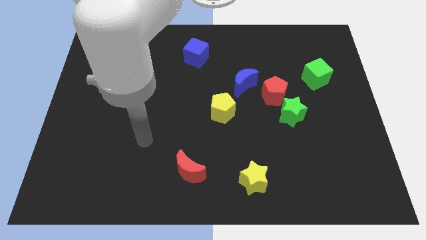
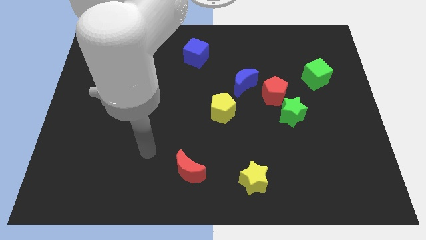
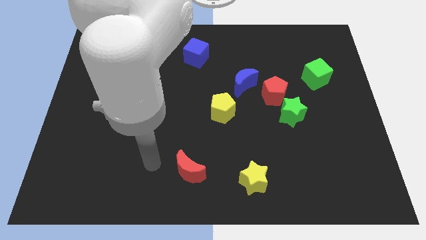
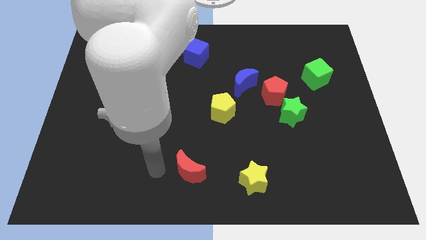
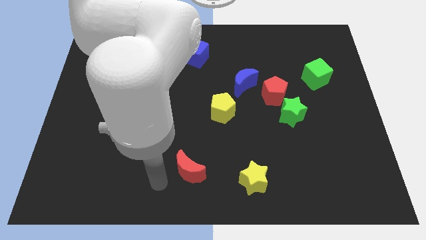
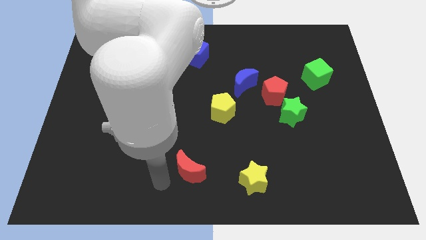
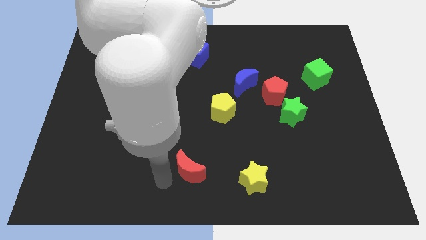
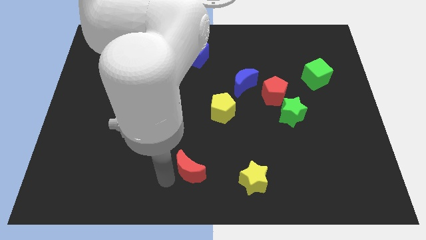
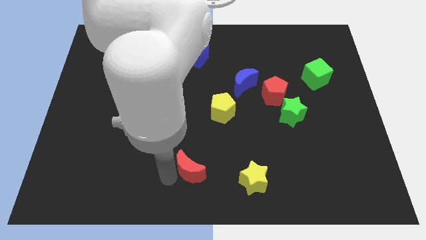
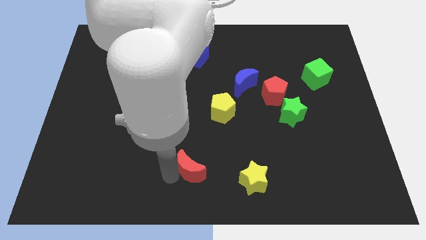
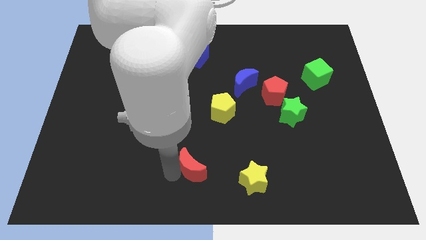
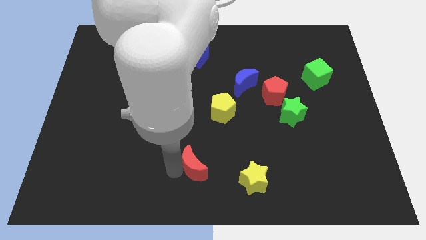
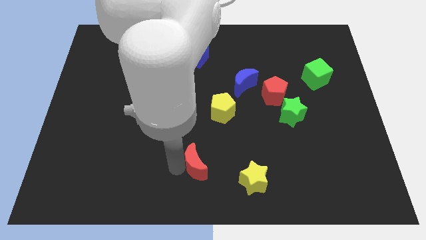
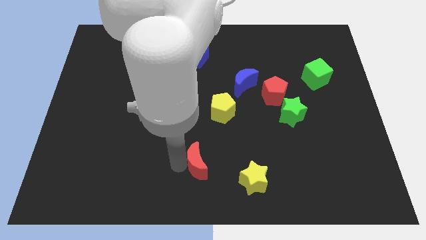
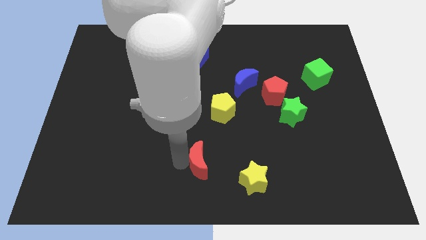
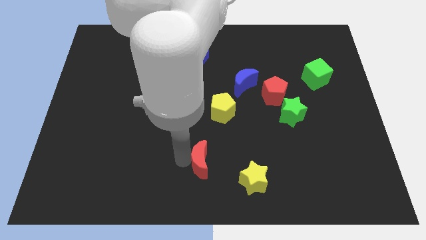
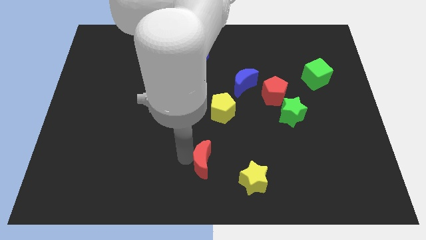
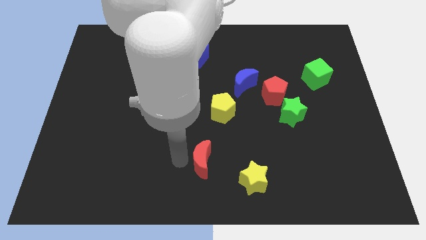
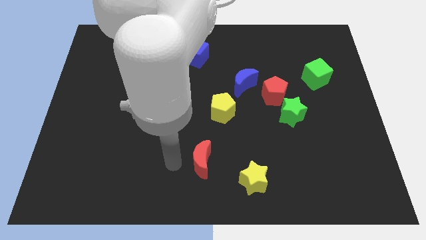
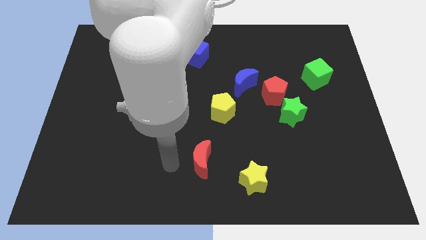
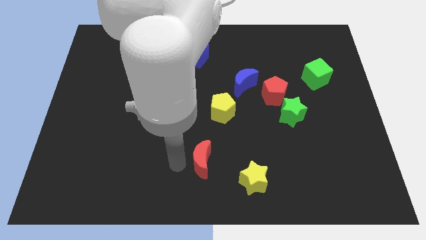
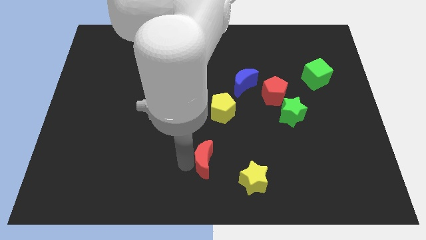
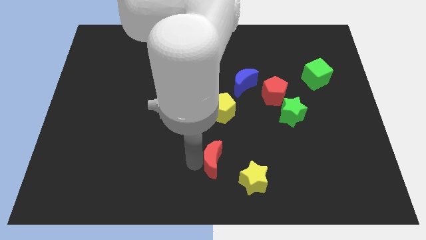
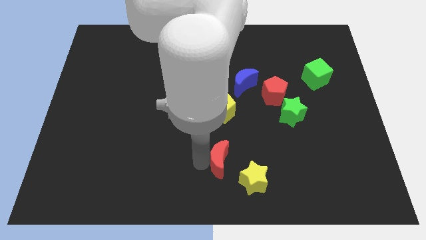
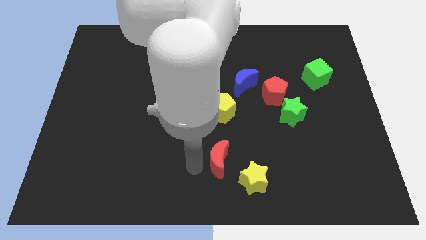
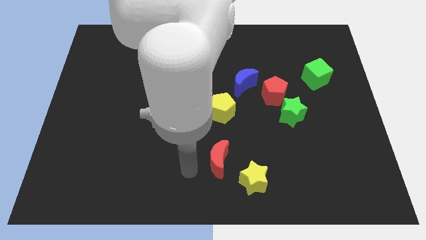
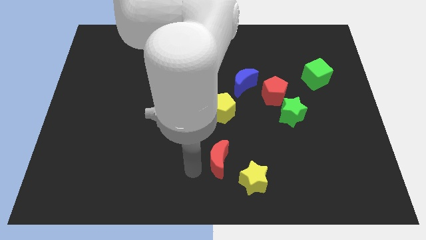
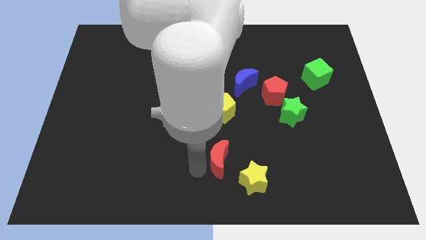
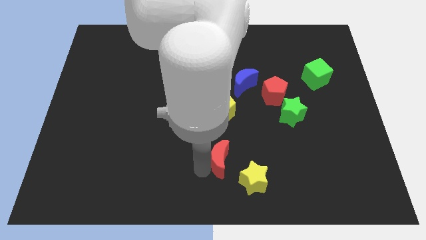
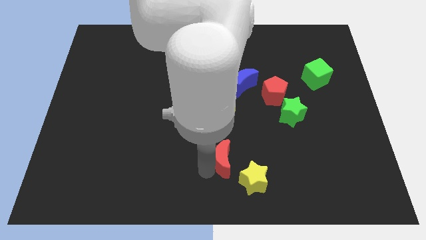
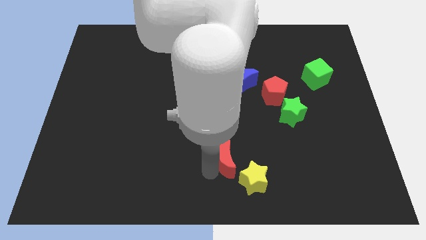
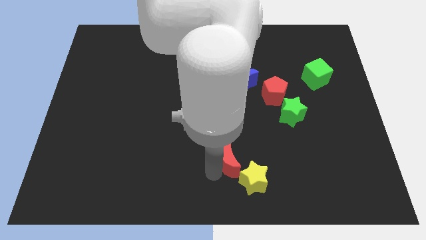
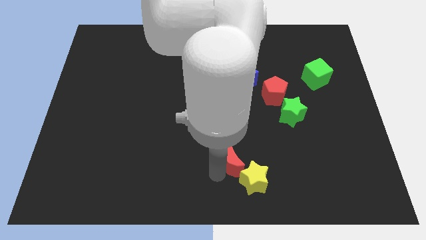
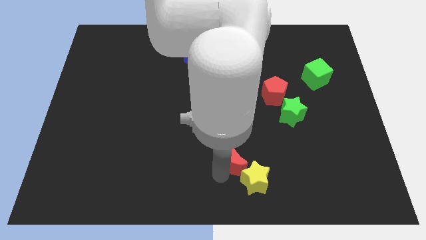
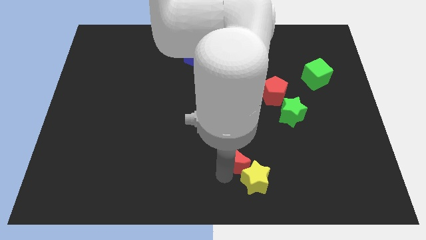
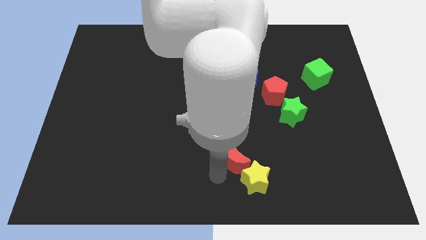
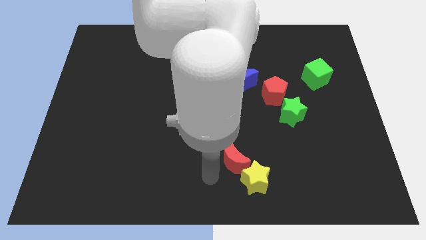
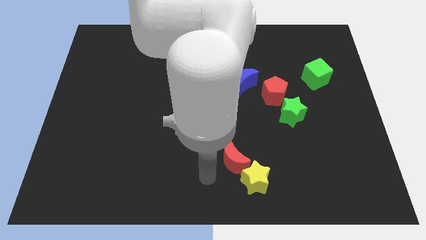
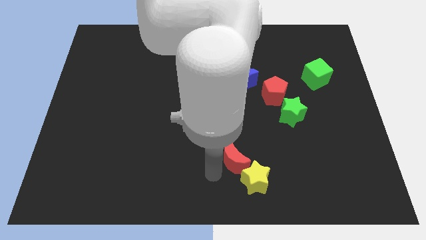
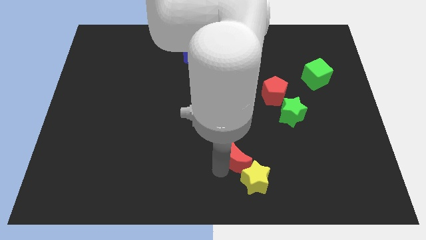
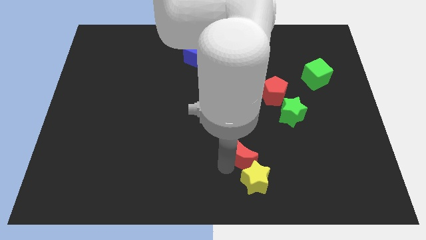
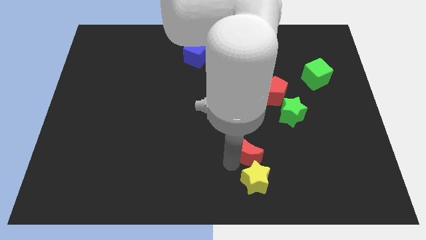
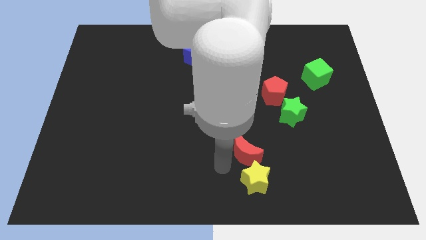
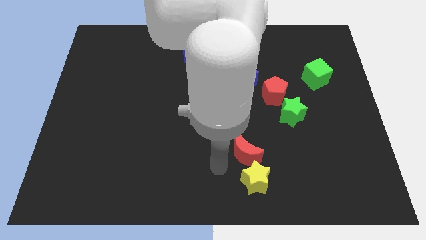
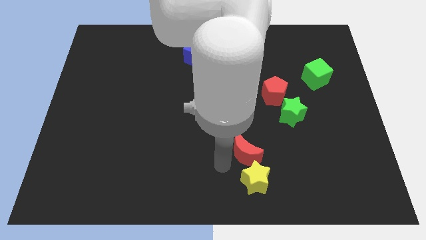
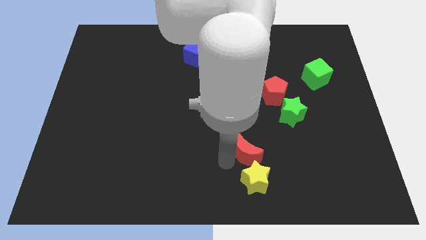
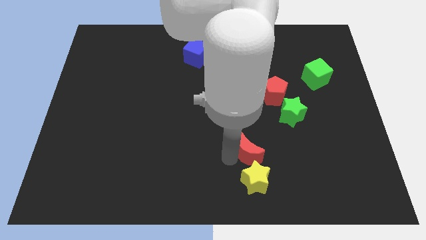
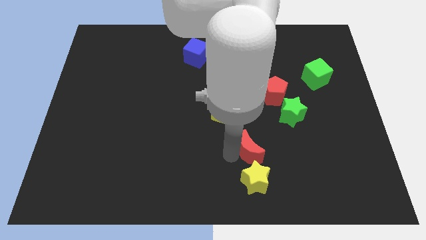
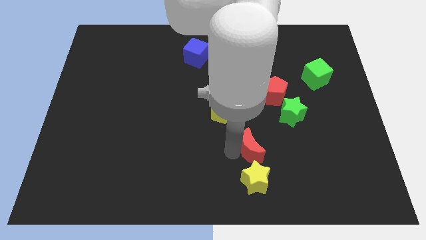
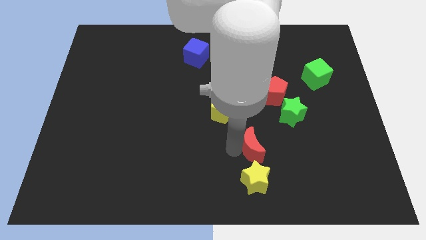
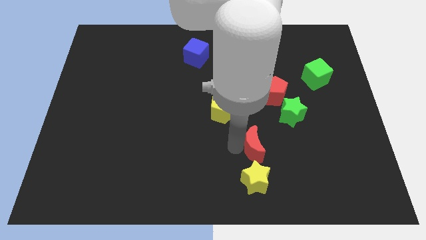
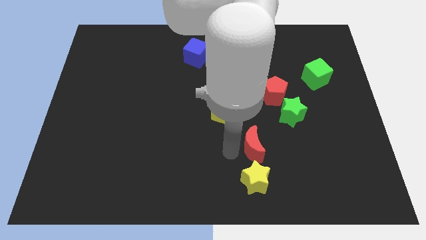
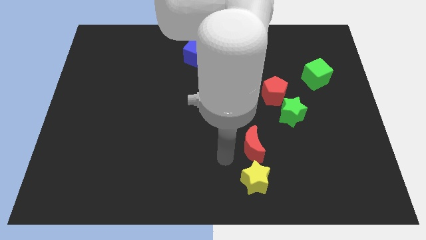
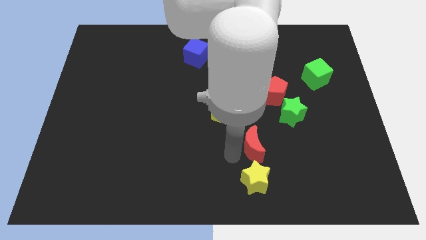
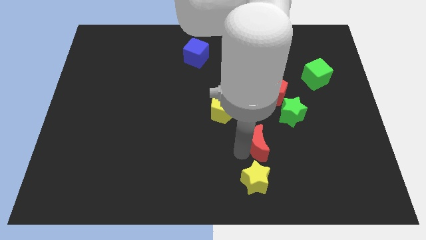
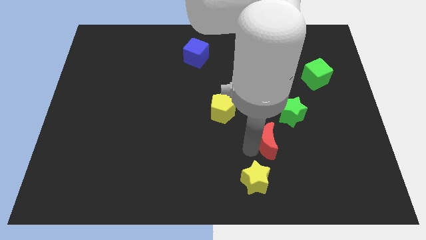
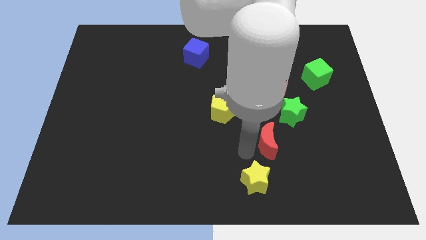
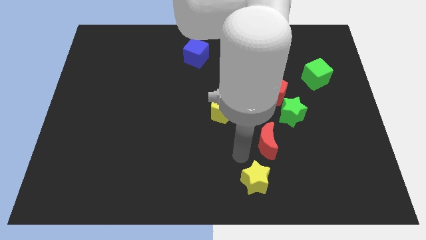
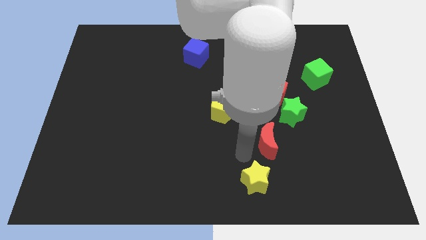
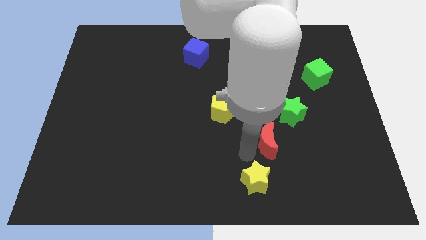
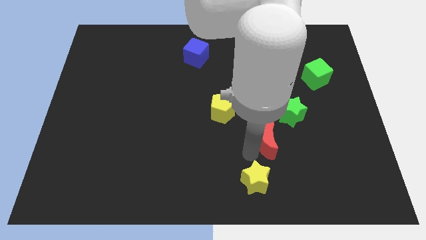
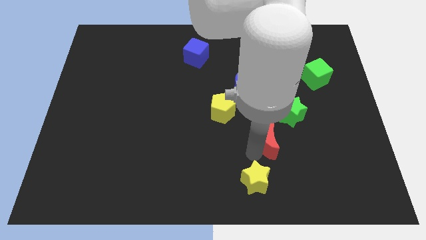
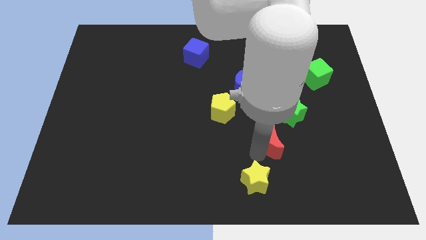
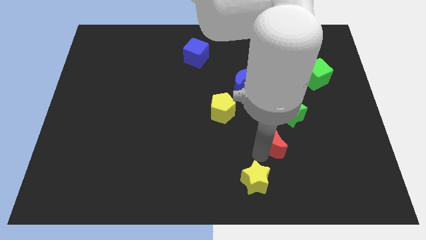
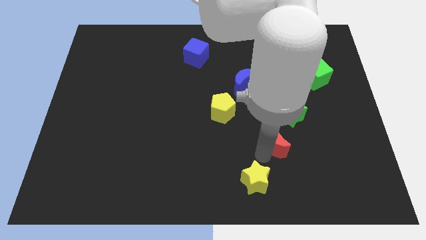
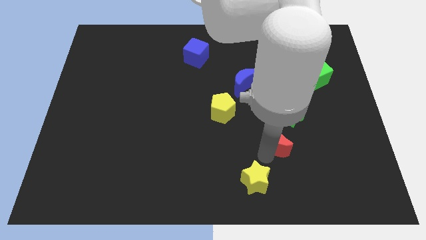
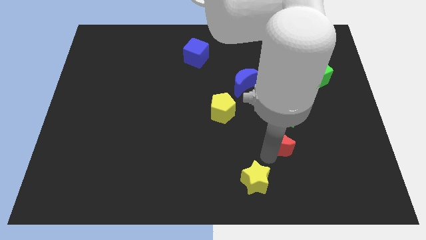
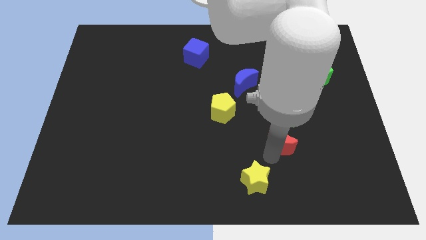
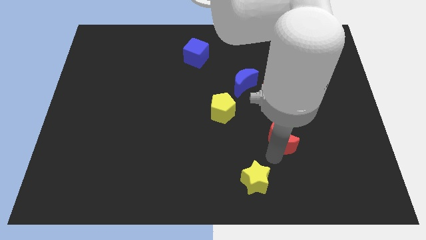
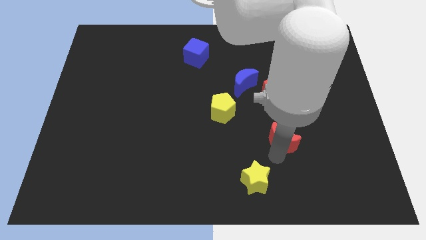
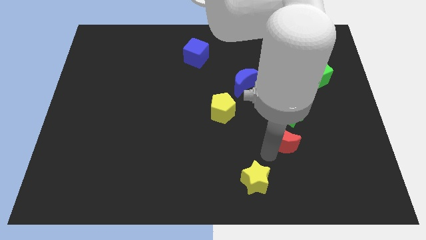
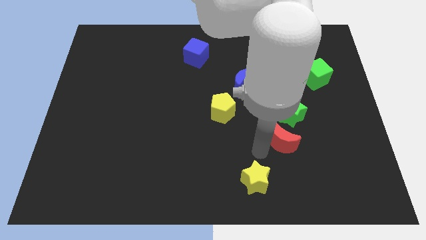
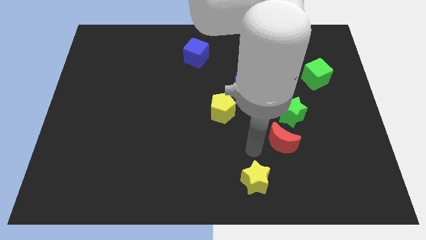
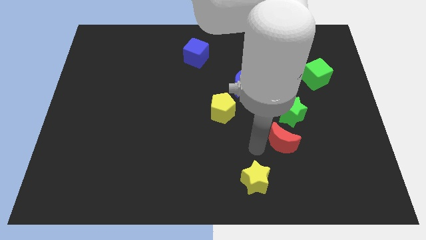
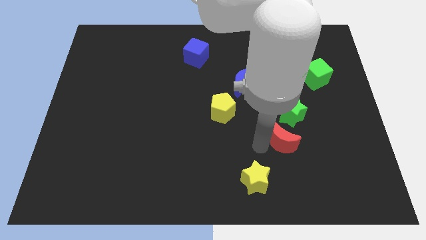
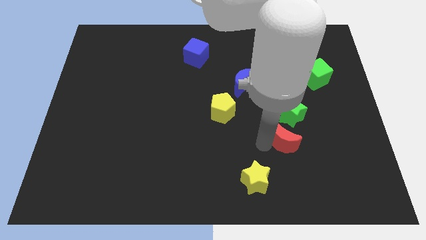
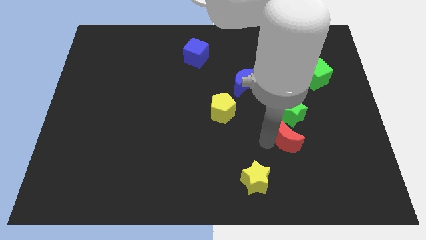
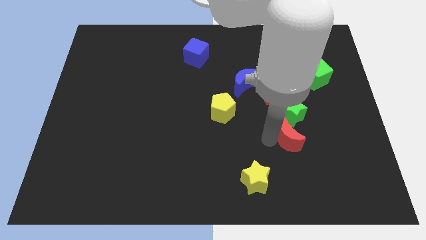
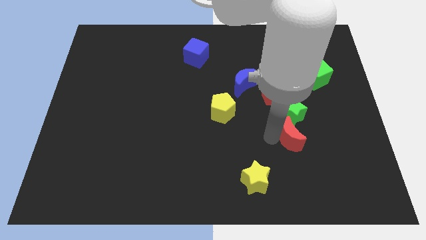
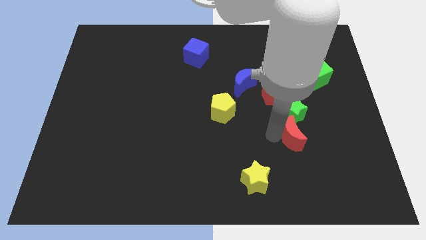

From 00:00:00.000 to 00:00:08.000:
move the red moon to the bottom right side of the green star
